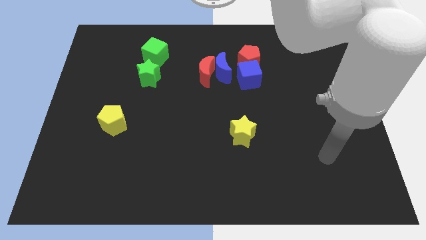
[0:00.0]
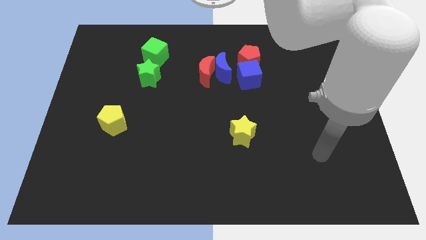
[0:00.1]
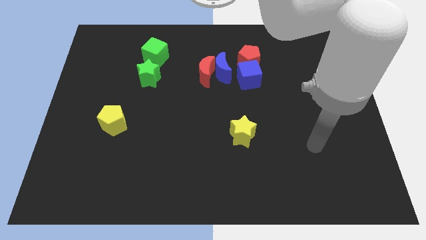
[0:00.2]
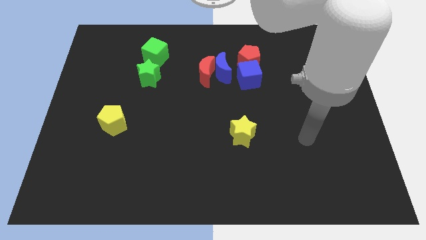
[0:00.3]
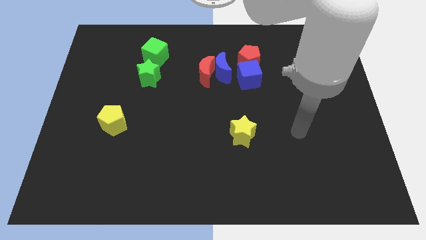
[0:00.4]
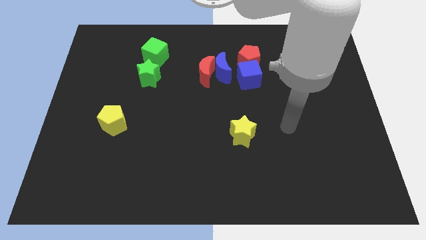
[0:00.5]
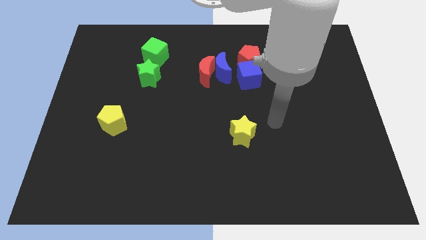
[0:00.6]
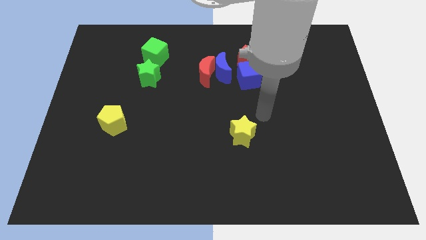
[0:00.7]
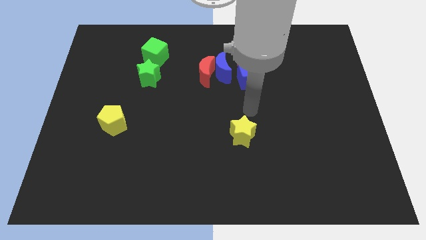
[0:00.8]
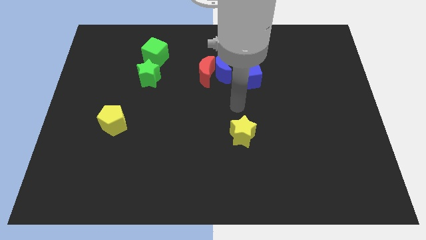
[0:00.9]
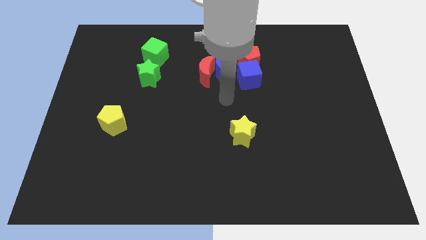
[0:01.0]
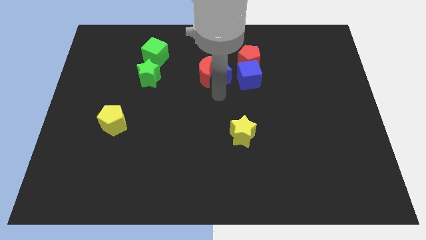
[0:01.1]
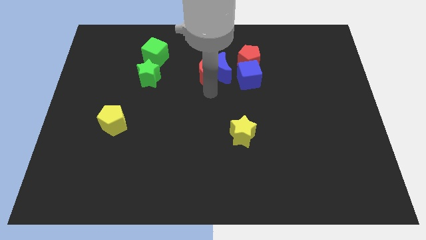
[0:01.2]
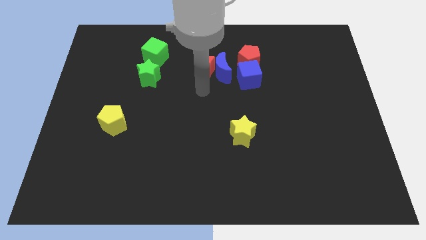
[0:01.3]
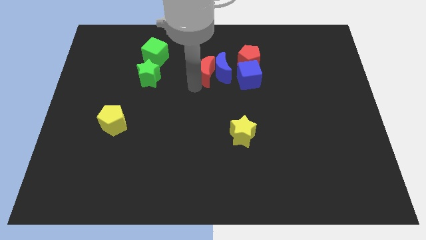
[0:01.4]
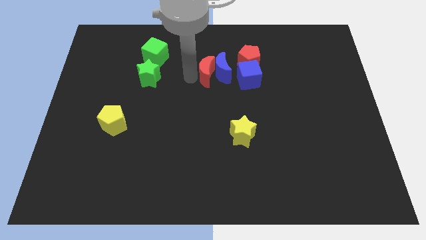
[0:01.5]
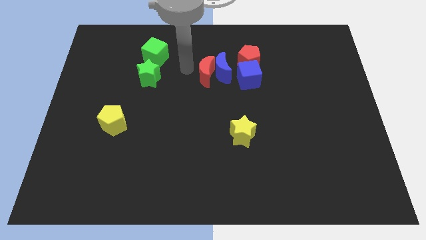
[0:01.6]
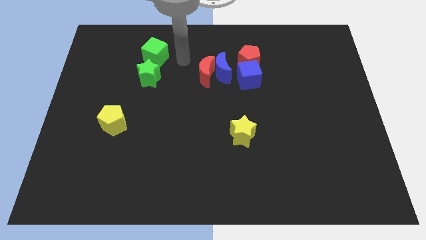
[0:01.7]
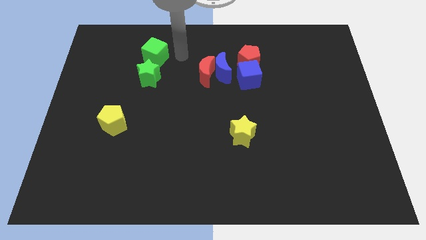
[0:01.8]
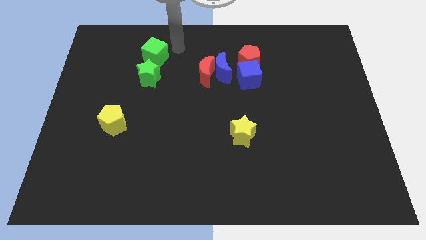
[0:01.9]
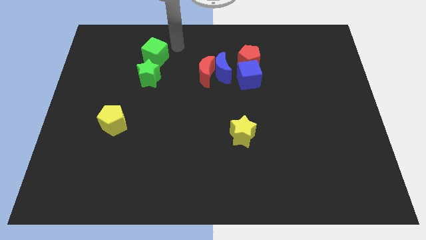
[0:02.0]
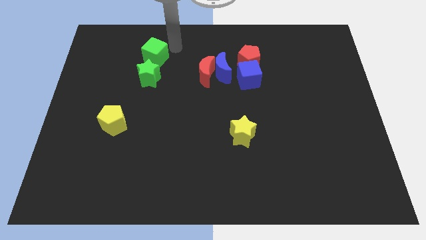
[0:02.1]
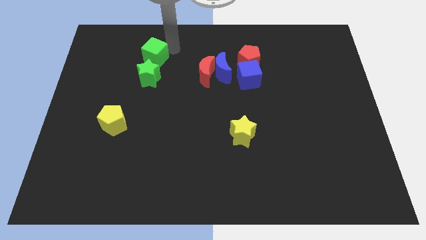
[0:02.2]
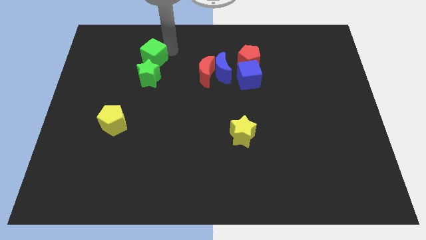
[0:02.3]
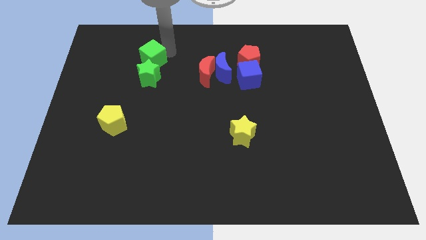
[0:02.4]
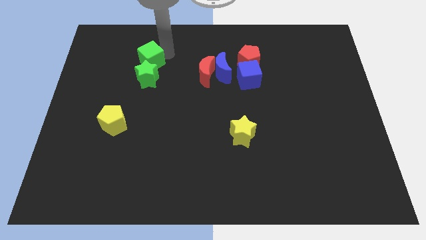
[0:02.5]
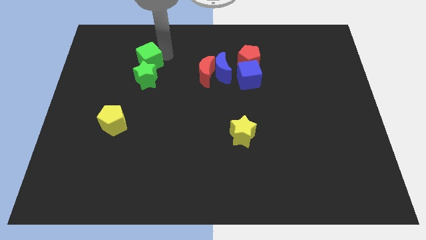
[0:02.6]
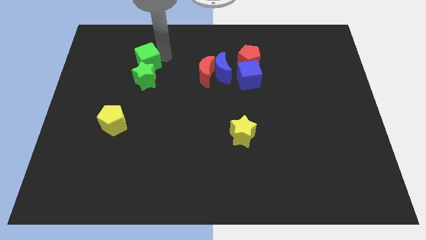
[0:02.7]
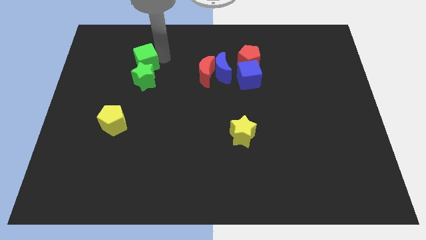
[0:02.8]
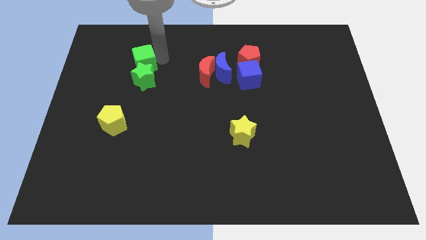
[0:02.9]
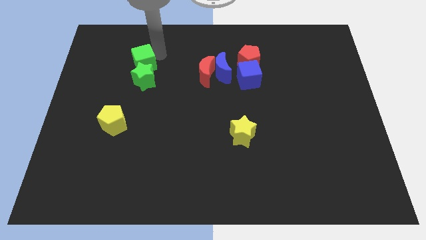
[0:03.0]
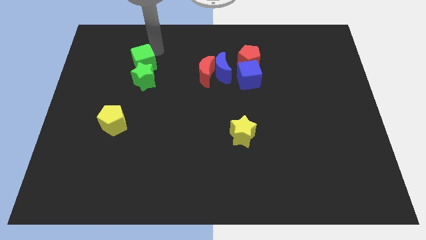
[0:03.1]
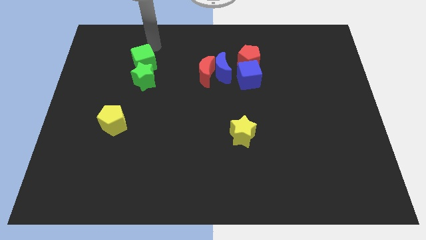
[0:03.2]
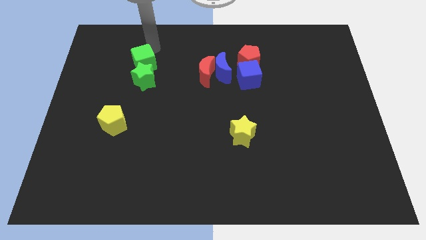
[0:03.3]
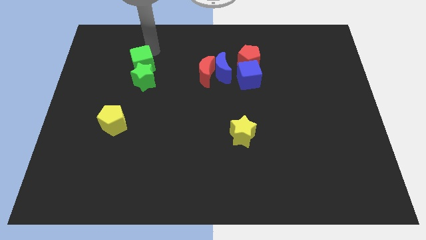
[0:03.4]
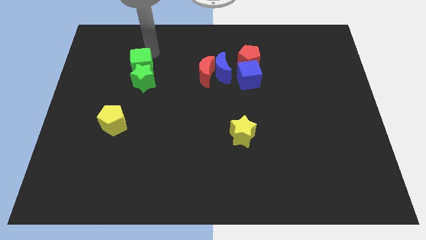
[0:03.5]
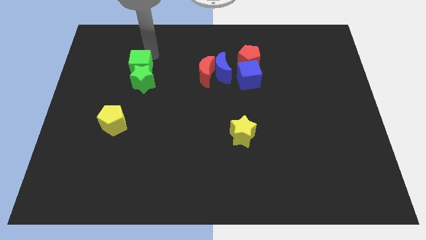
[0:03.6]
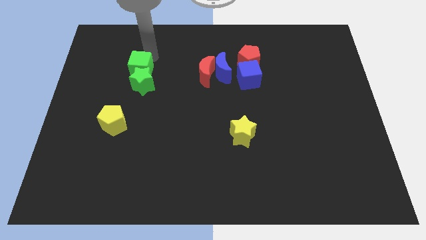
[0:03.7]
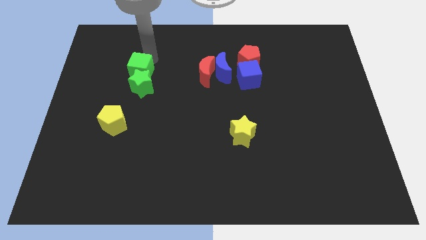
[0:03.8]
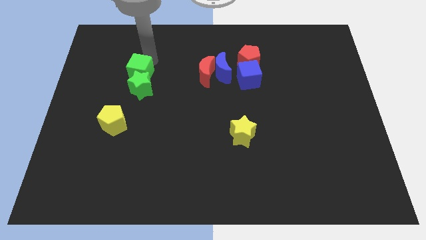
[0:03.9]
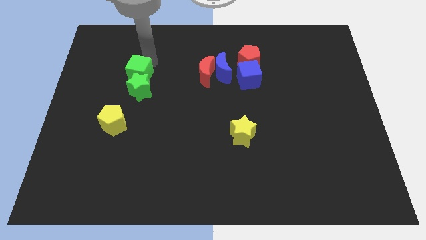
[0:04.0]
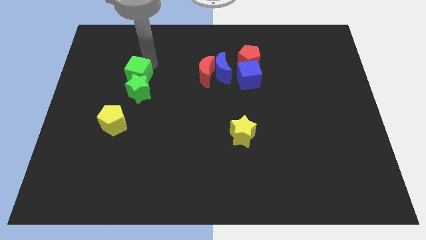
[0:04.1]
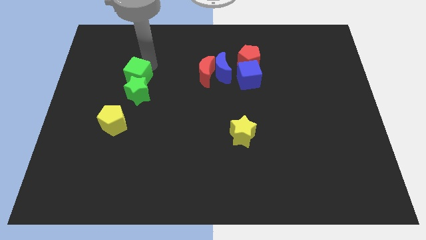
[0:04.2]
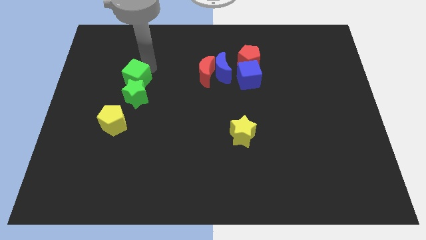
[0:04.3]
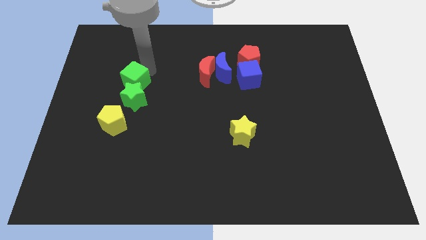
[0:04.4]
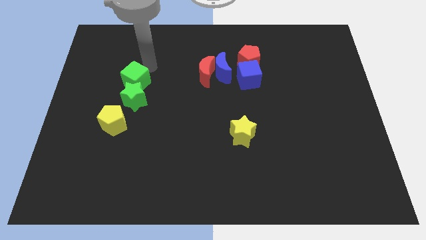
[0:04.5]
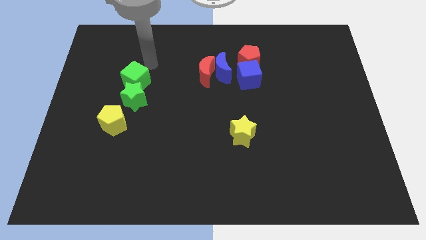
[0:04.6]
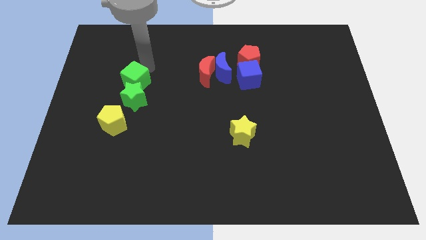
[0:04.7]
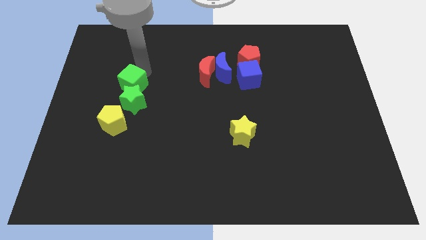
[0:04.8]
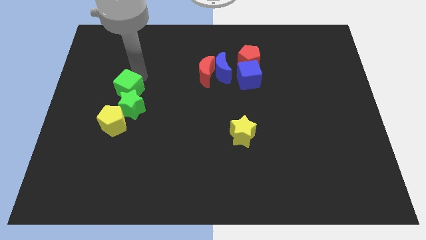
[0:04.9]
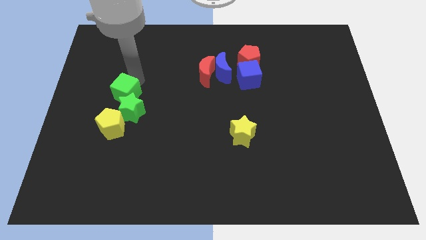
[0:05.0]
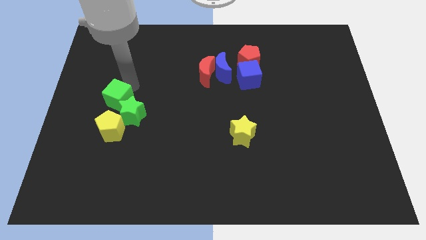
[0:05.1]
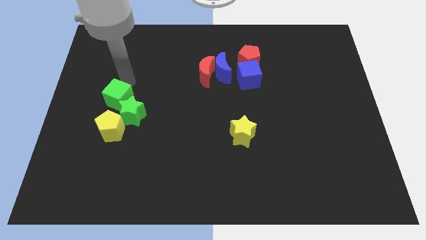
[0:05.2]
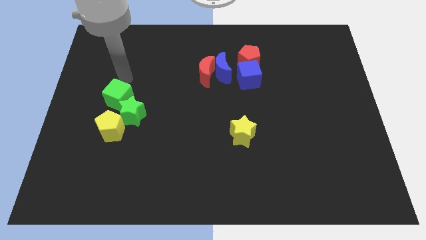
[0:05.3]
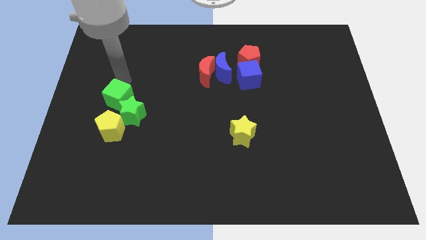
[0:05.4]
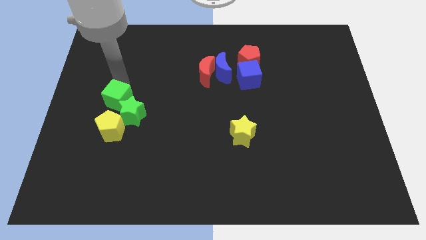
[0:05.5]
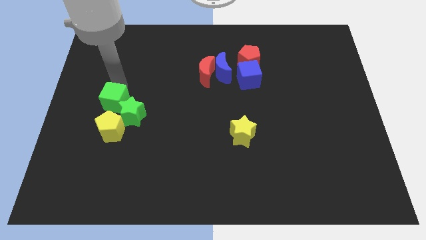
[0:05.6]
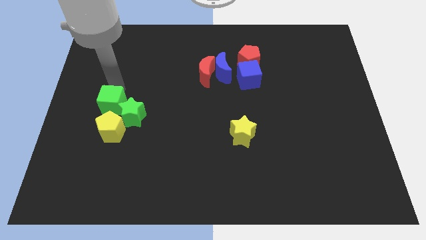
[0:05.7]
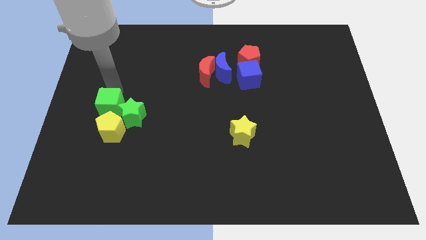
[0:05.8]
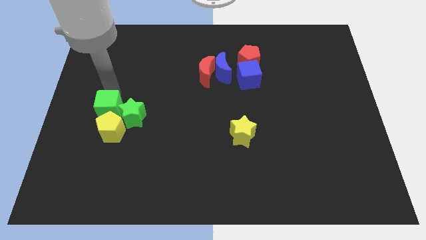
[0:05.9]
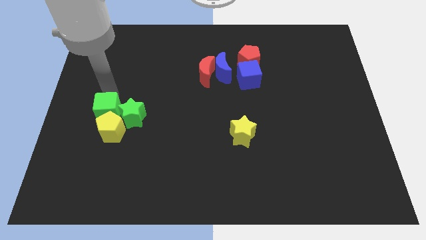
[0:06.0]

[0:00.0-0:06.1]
move the green cube next to the yellow pentagon

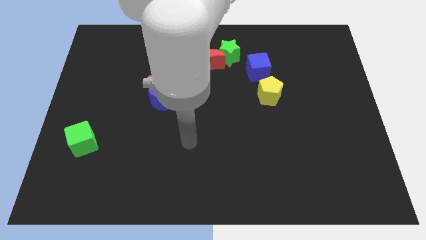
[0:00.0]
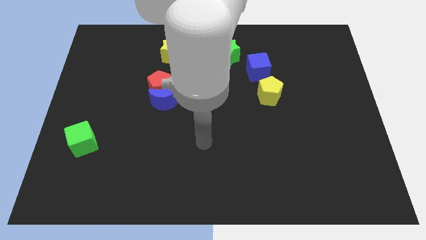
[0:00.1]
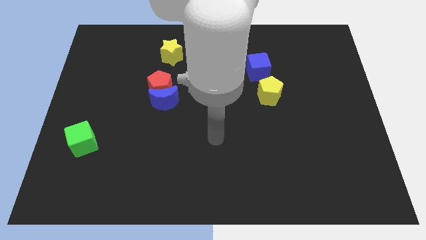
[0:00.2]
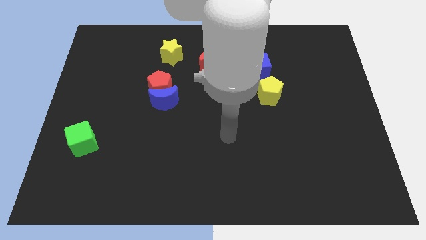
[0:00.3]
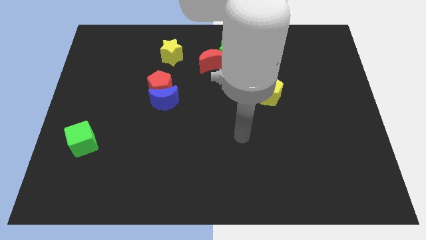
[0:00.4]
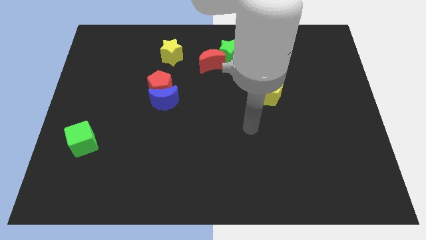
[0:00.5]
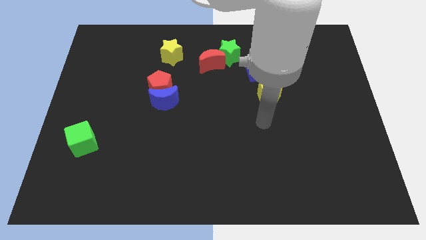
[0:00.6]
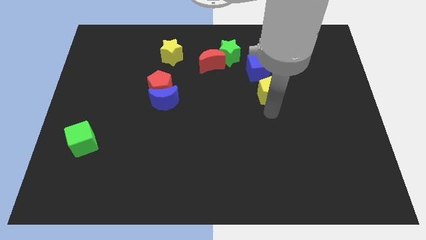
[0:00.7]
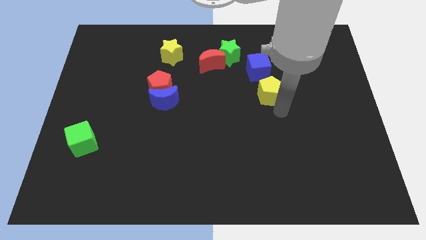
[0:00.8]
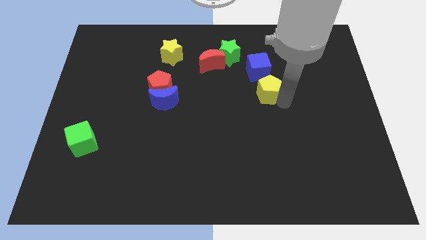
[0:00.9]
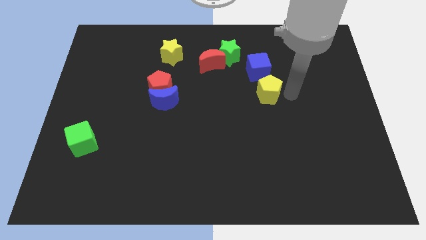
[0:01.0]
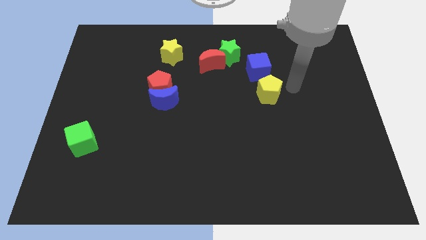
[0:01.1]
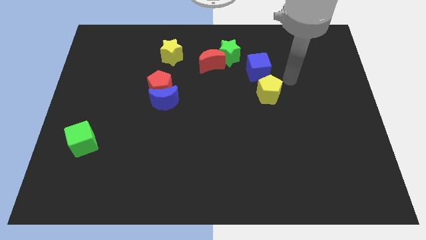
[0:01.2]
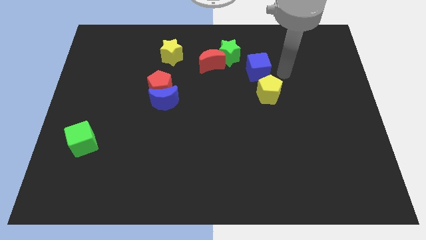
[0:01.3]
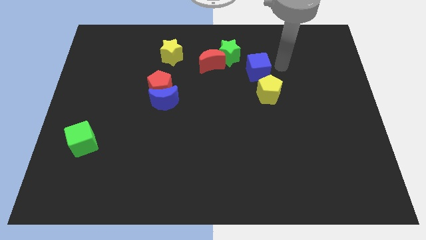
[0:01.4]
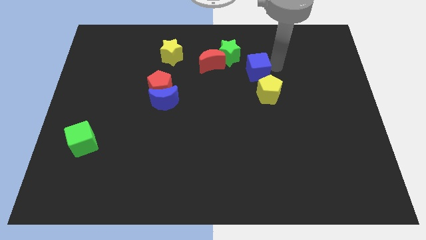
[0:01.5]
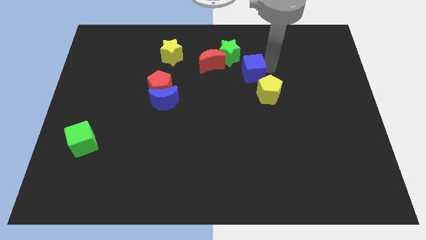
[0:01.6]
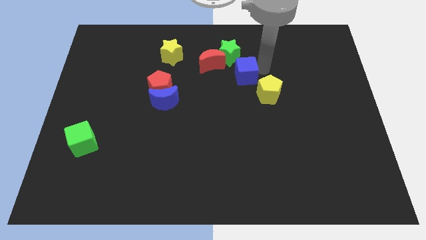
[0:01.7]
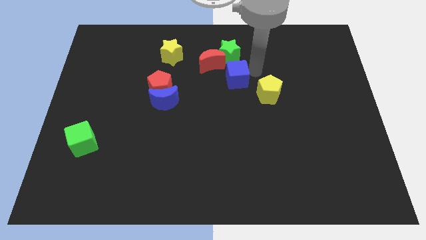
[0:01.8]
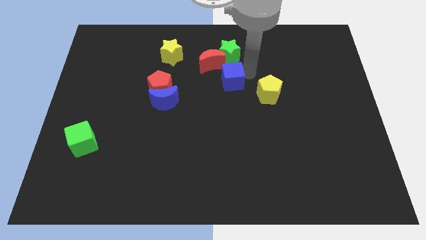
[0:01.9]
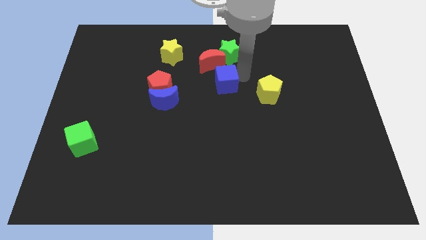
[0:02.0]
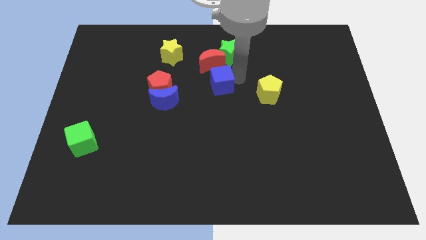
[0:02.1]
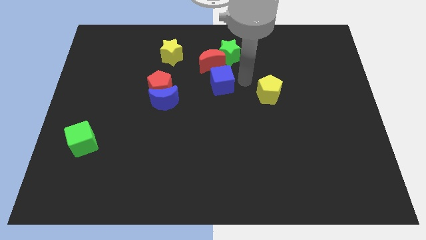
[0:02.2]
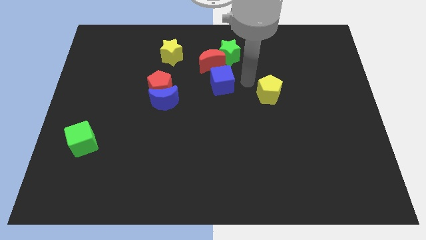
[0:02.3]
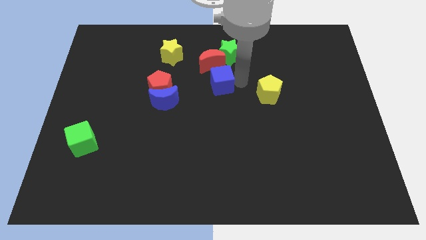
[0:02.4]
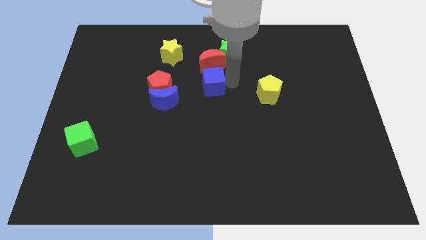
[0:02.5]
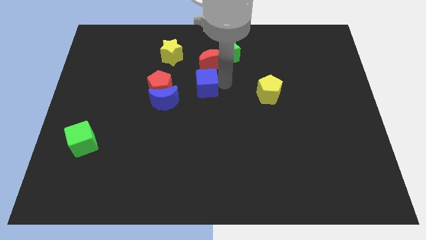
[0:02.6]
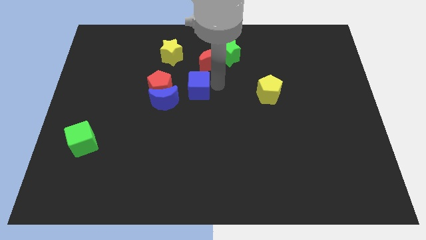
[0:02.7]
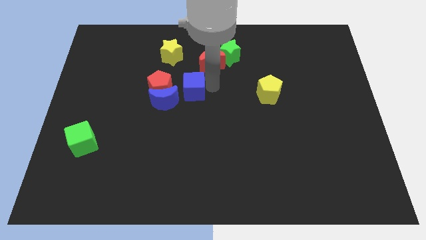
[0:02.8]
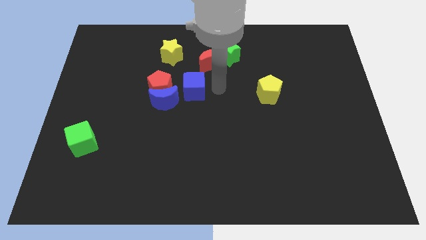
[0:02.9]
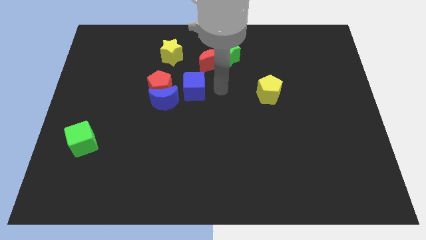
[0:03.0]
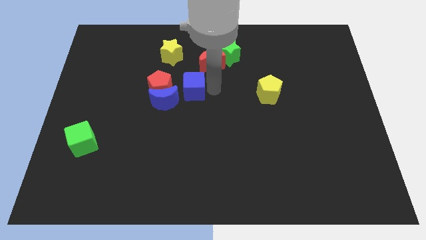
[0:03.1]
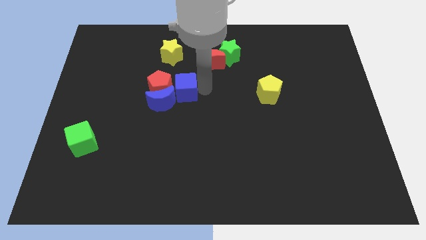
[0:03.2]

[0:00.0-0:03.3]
push the blue cube towards the red pentagon
